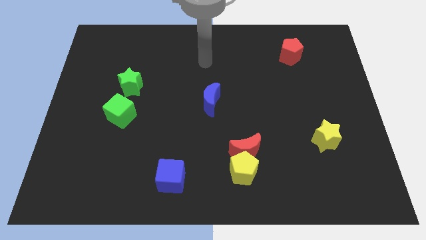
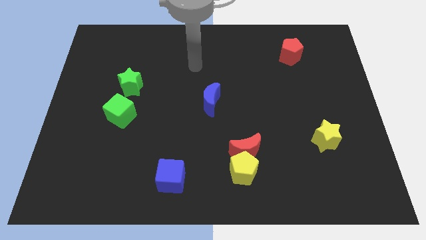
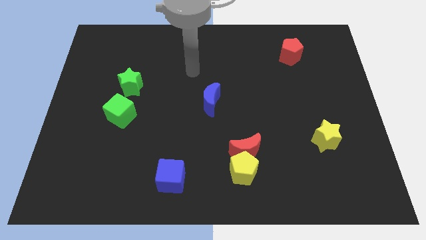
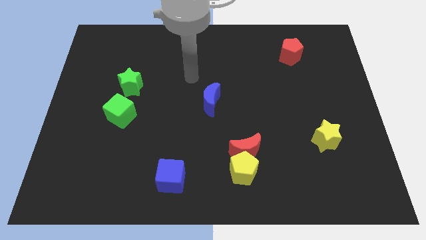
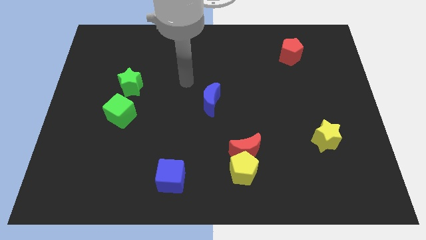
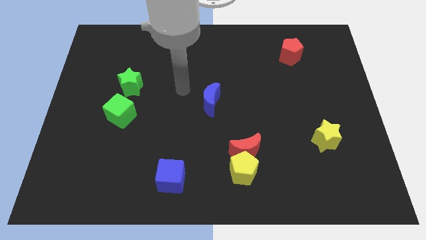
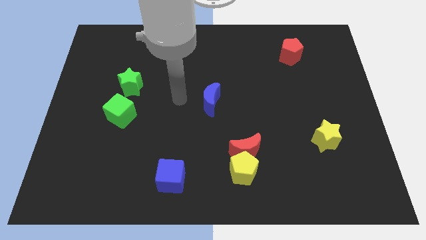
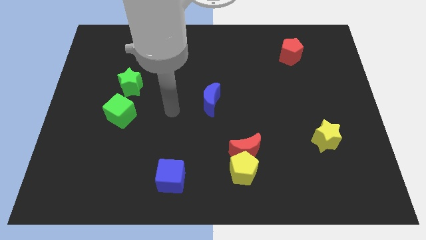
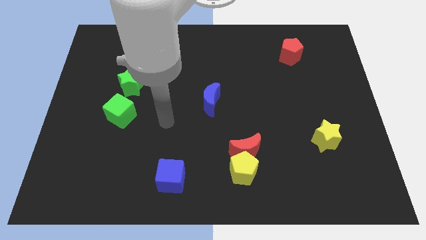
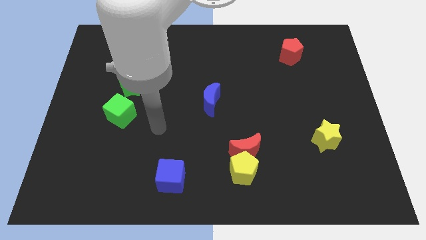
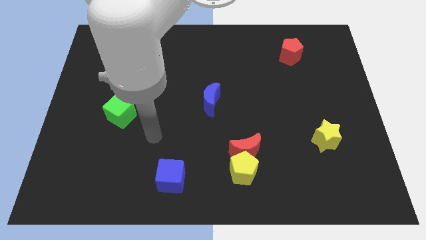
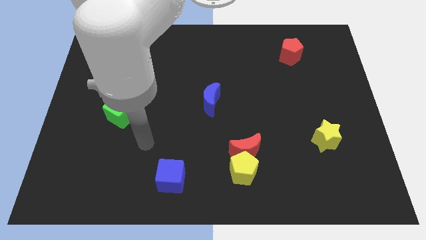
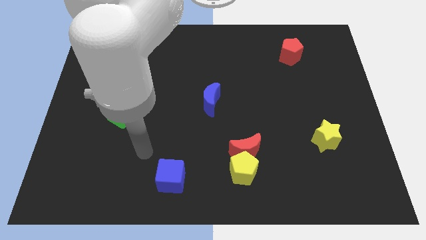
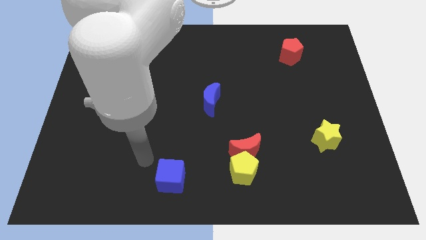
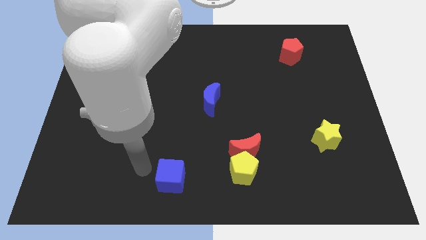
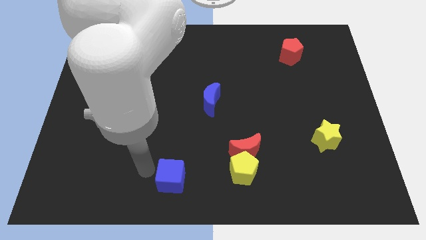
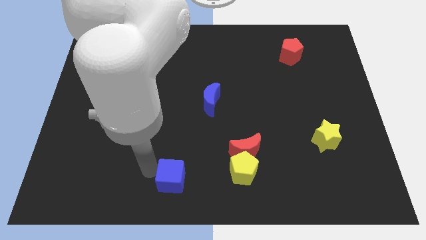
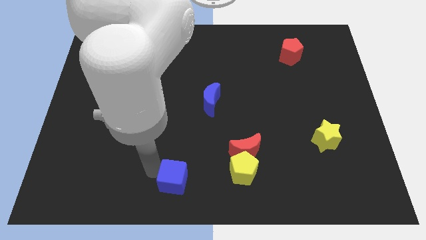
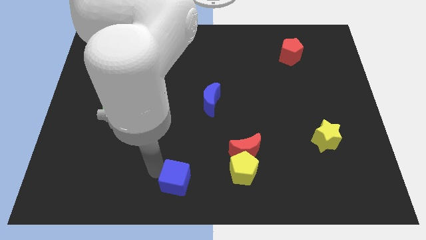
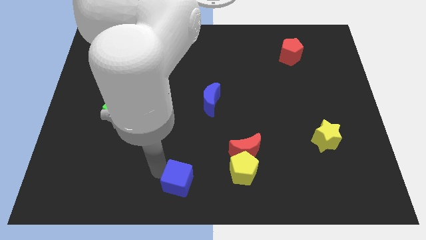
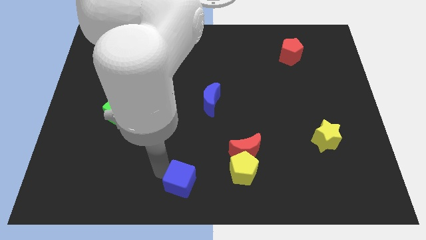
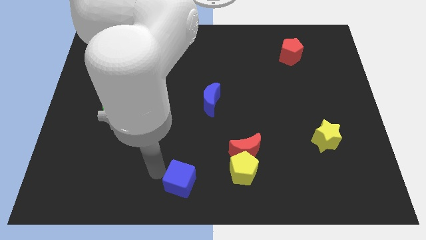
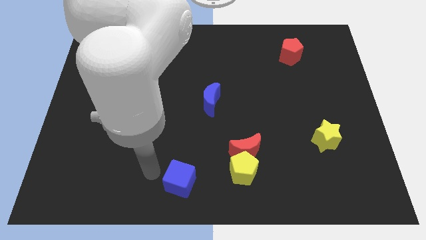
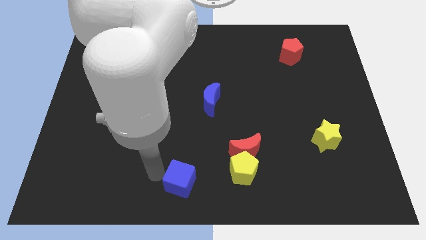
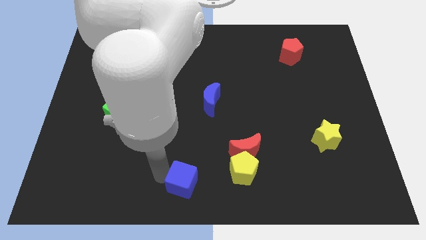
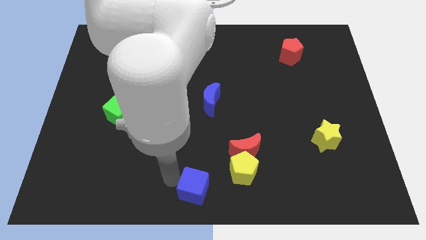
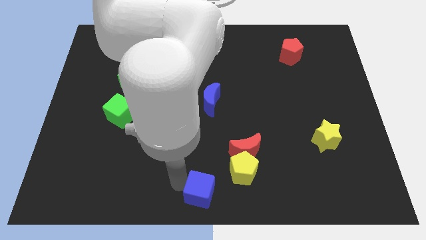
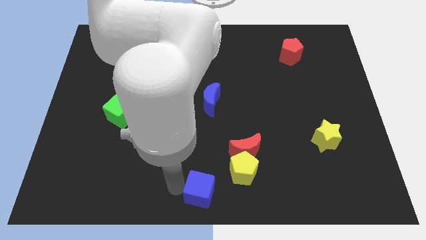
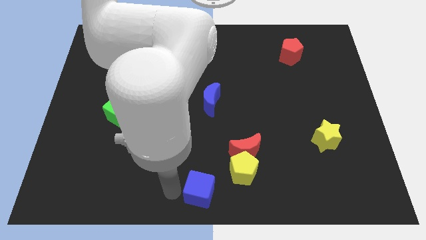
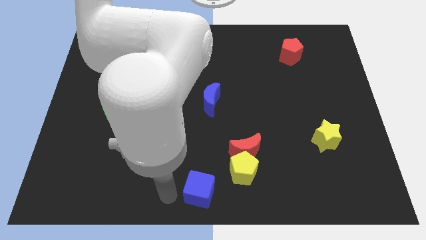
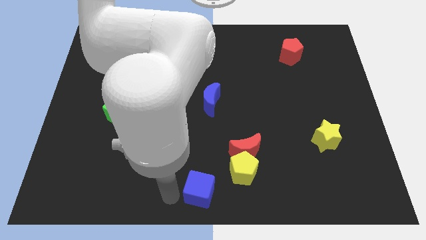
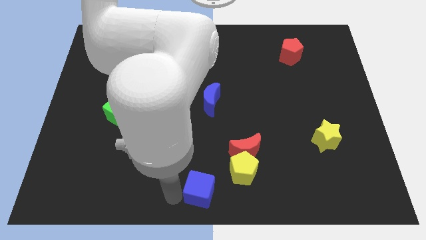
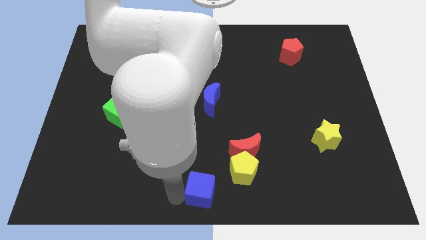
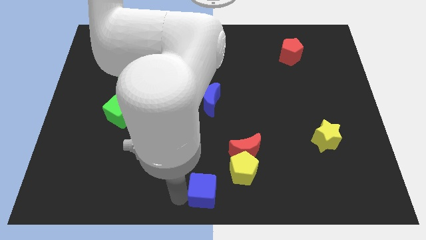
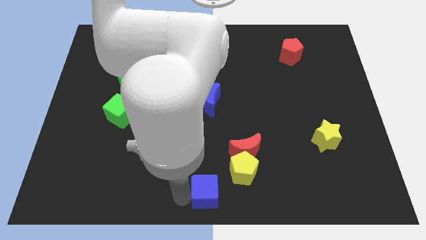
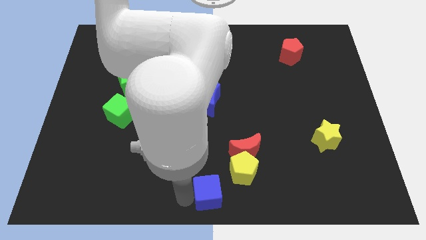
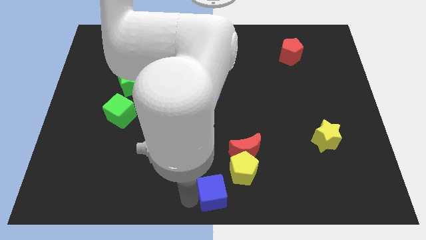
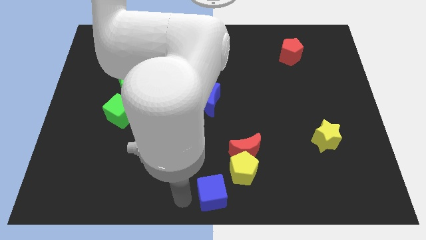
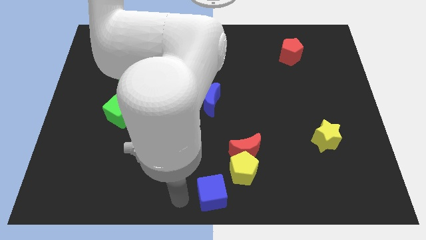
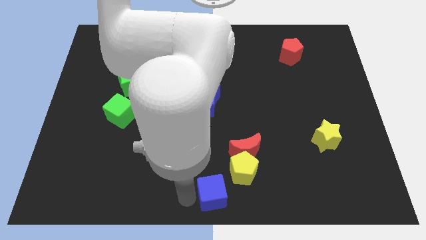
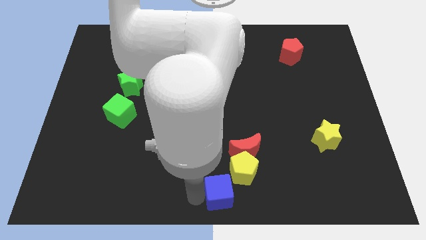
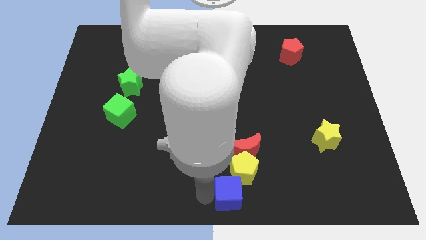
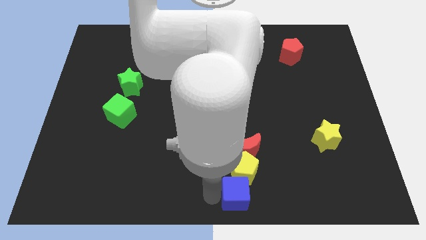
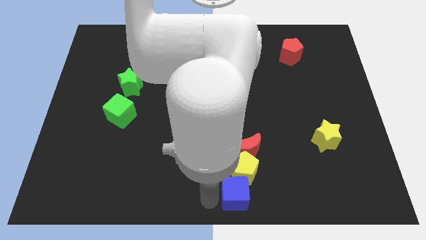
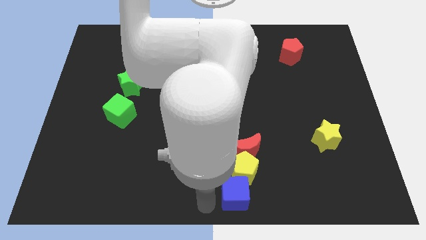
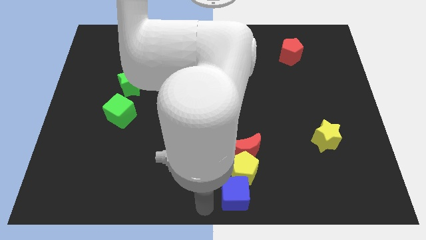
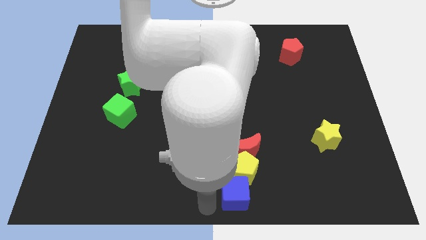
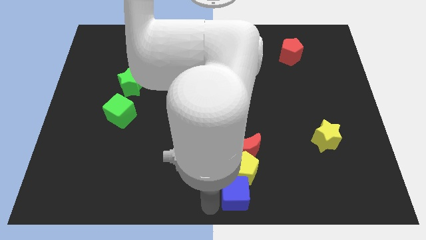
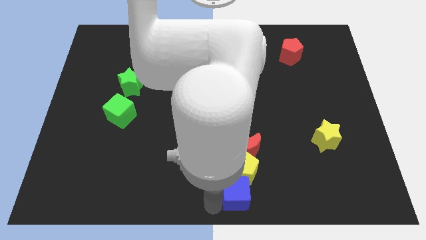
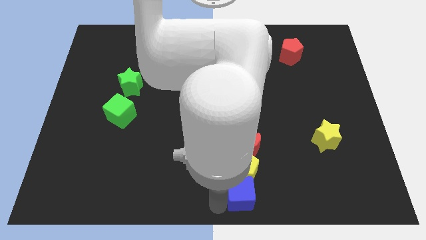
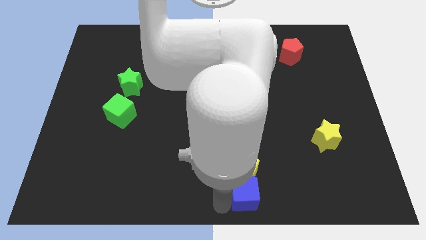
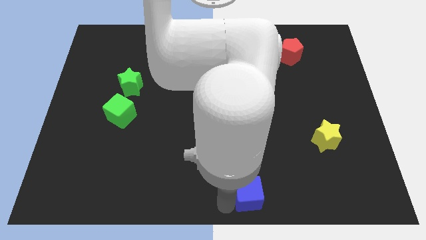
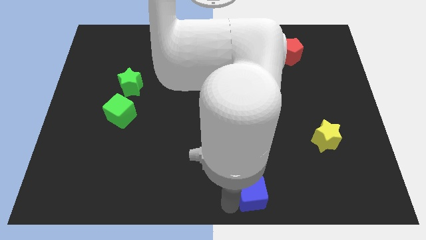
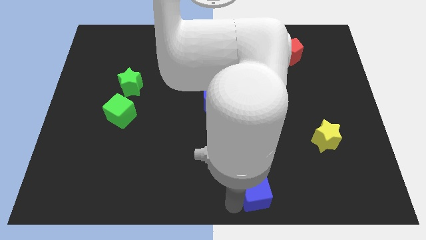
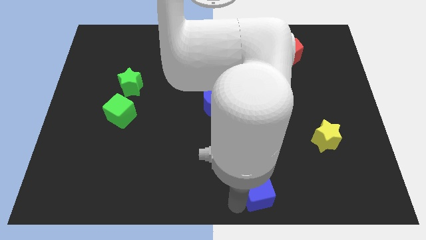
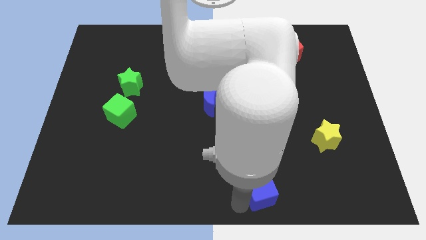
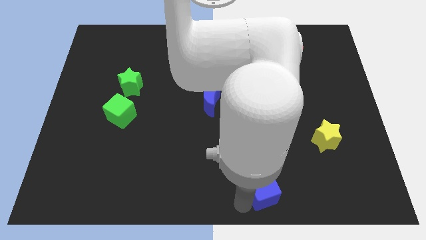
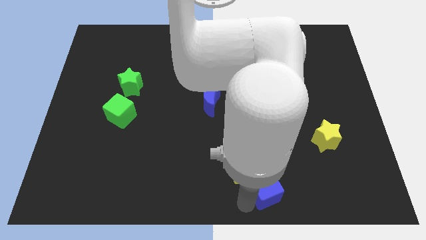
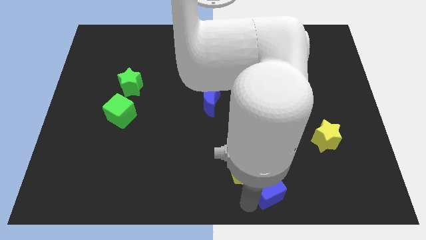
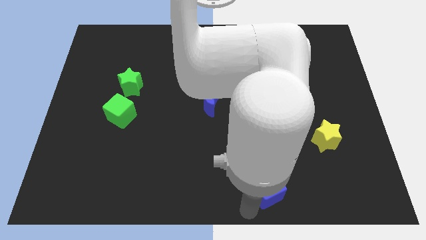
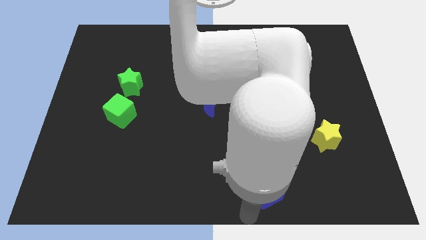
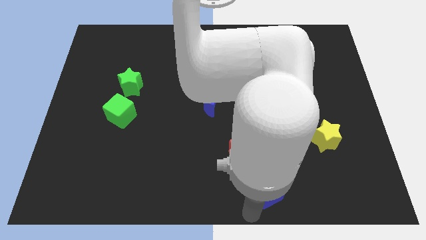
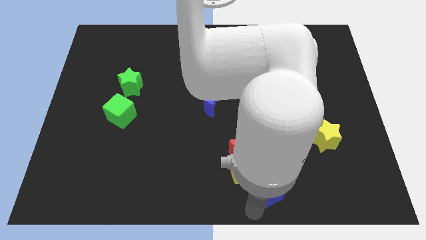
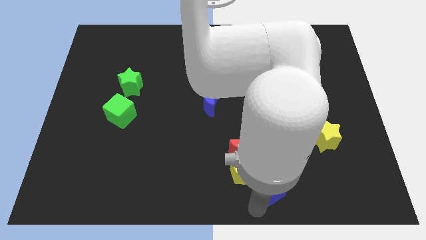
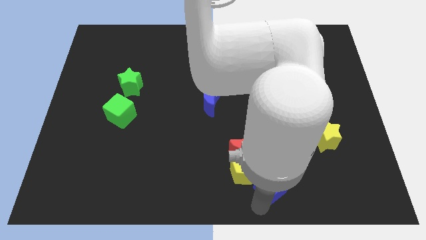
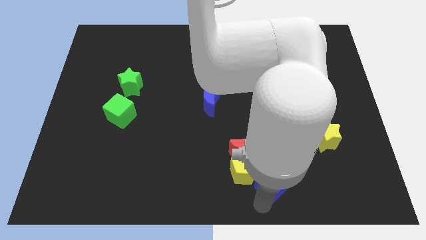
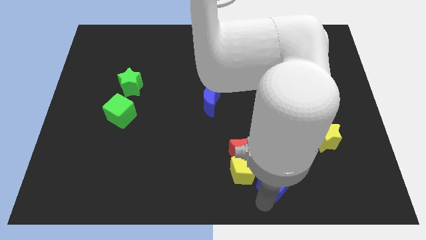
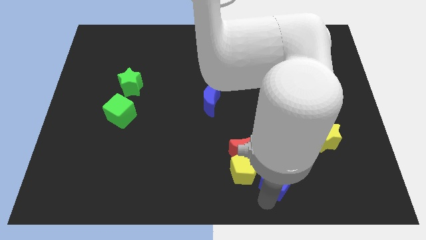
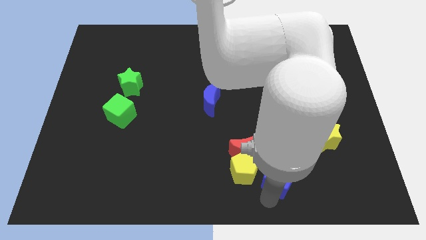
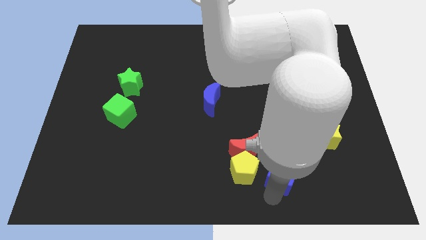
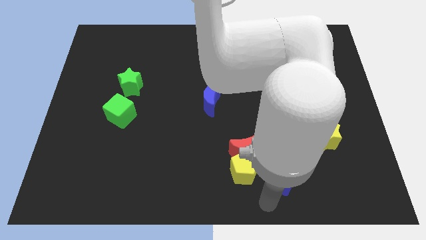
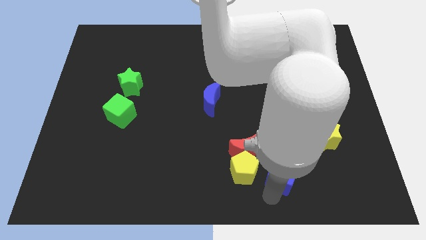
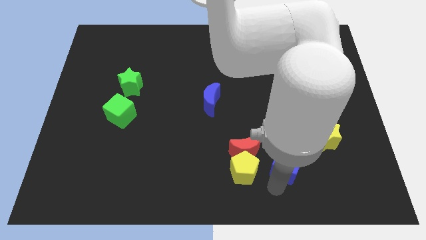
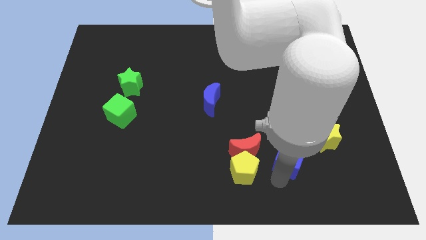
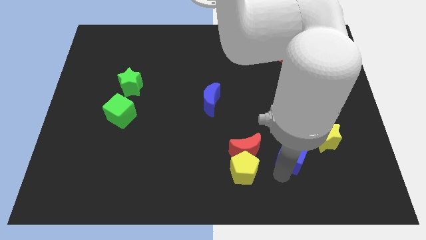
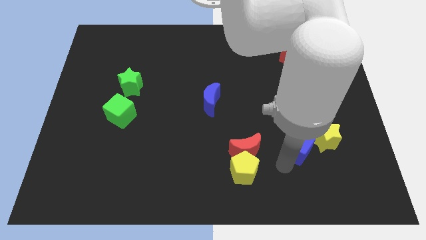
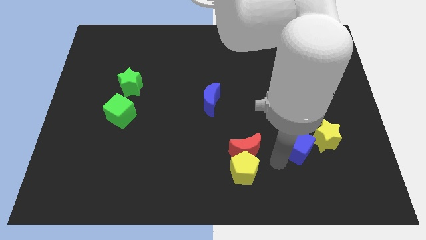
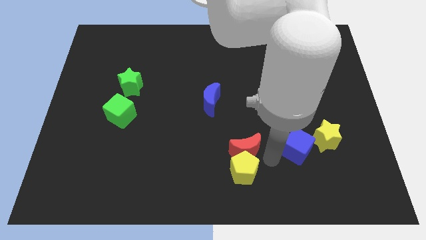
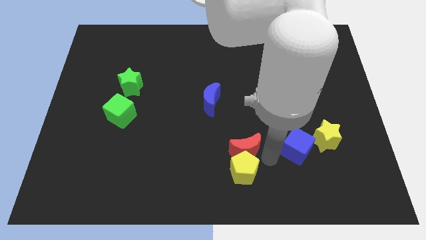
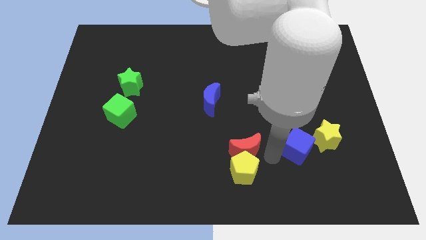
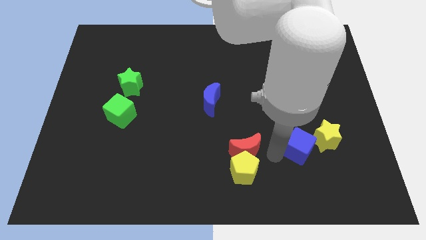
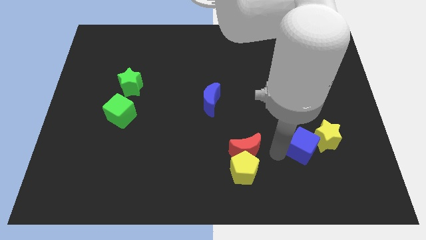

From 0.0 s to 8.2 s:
slide the blue cube close to the yellow star
